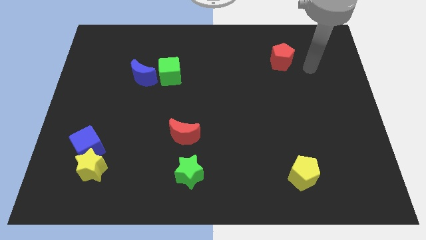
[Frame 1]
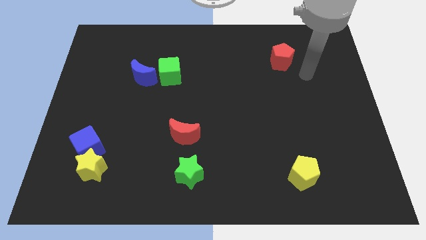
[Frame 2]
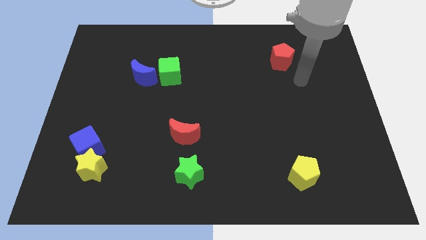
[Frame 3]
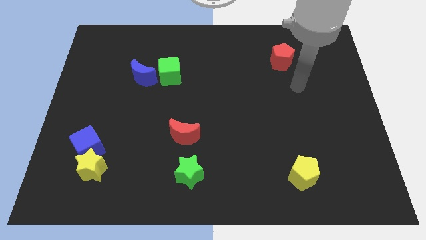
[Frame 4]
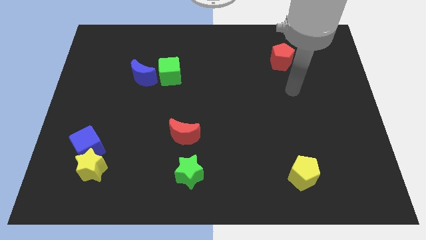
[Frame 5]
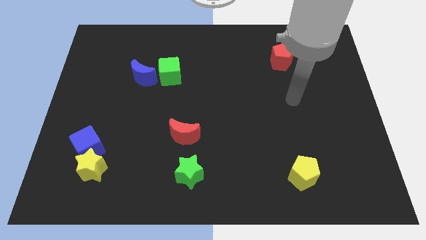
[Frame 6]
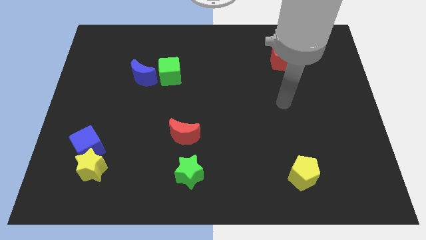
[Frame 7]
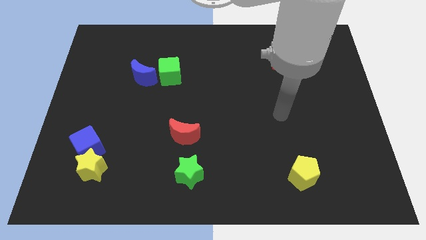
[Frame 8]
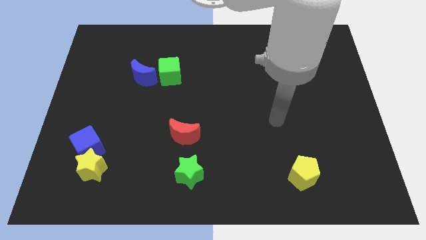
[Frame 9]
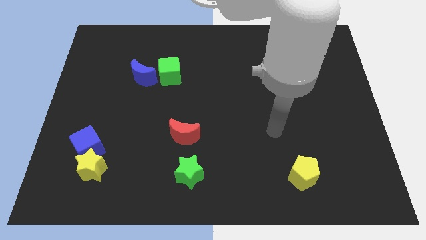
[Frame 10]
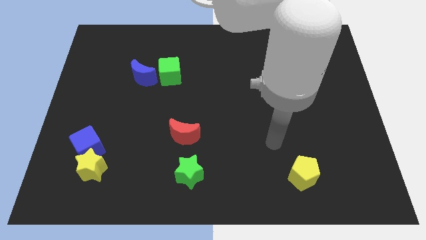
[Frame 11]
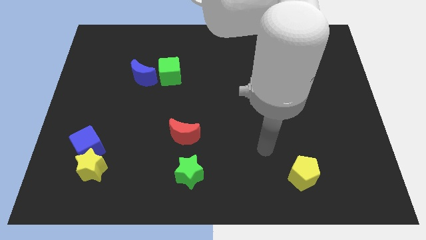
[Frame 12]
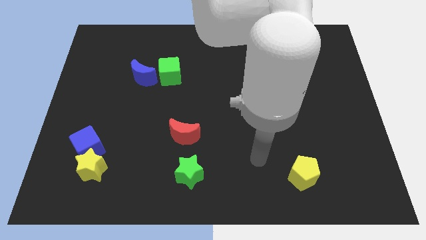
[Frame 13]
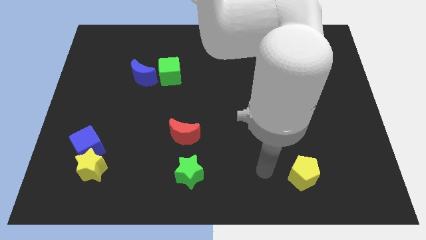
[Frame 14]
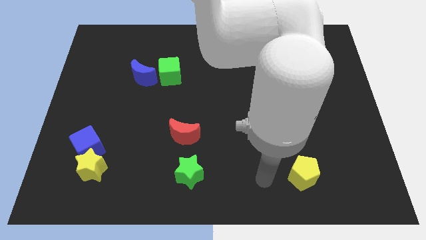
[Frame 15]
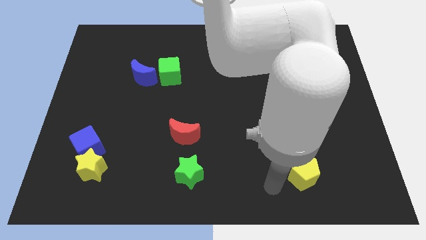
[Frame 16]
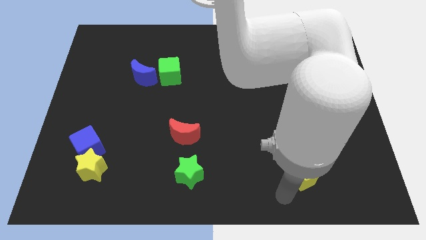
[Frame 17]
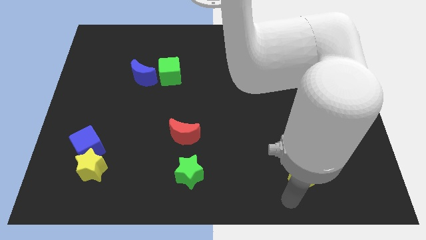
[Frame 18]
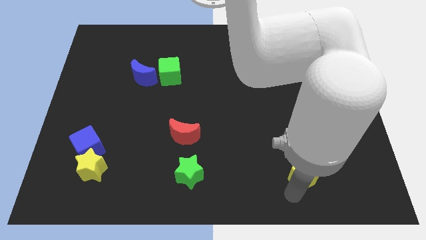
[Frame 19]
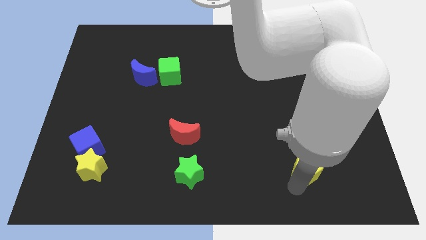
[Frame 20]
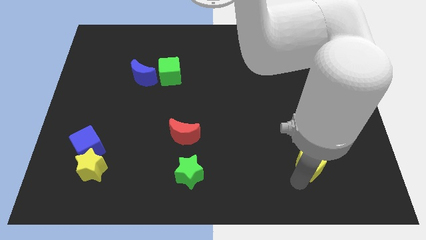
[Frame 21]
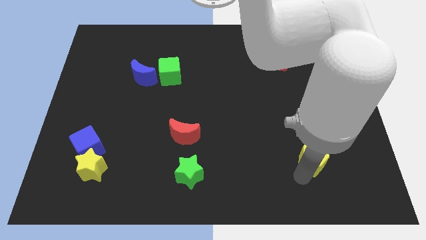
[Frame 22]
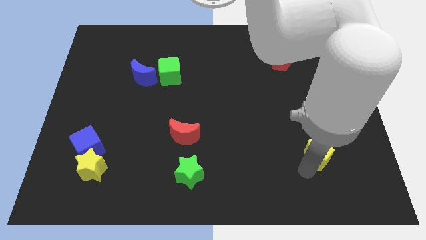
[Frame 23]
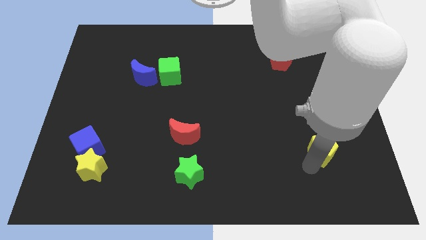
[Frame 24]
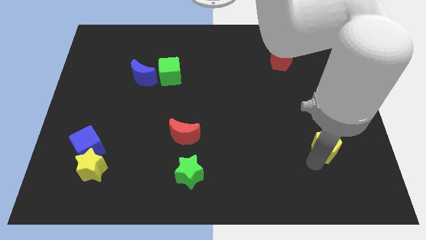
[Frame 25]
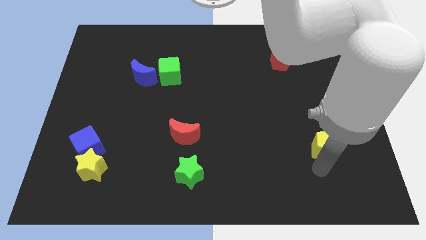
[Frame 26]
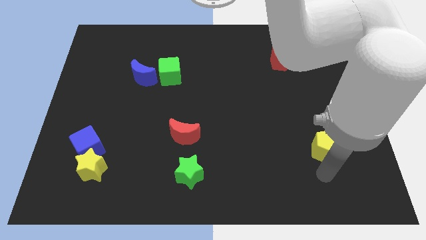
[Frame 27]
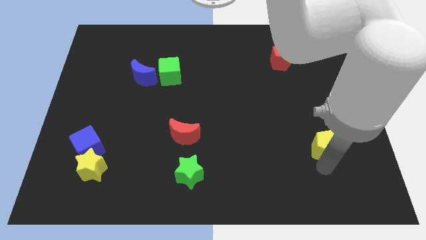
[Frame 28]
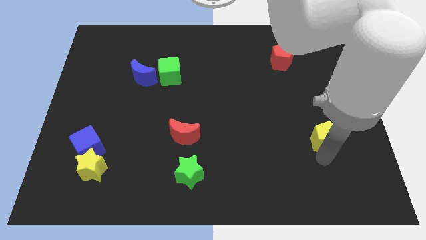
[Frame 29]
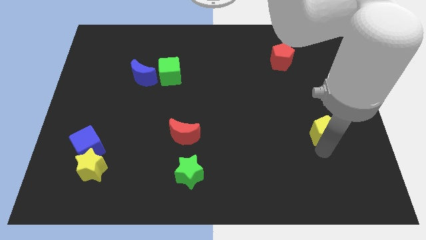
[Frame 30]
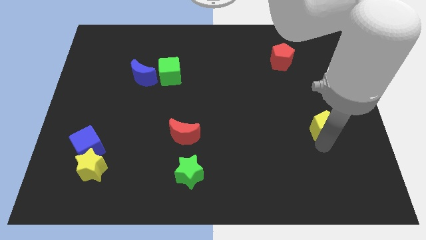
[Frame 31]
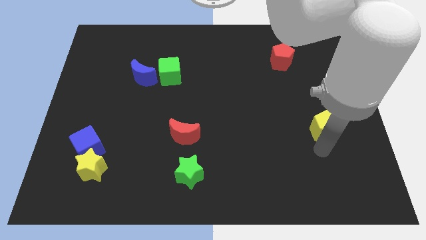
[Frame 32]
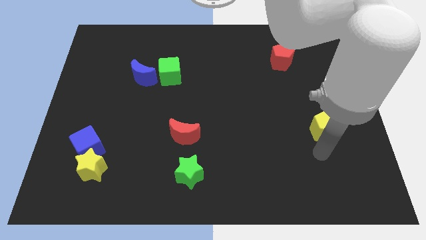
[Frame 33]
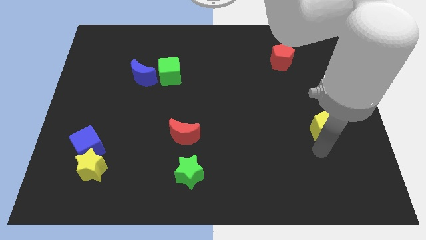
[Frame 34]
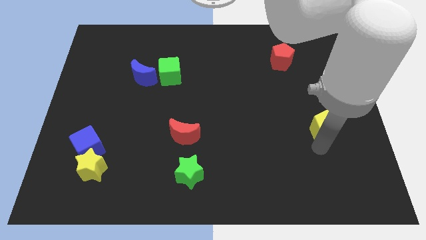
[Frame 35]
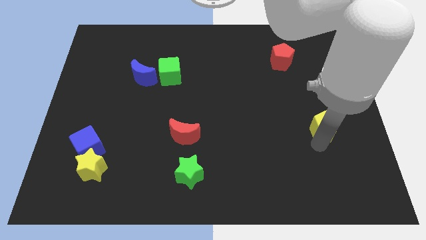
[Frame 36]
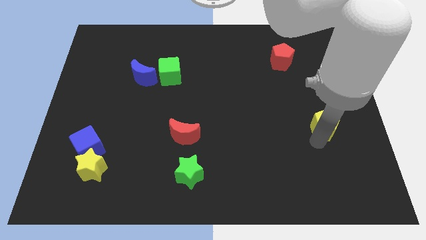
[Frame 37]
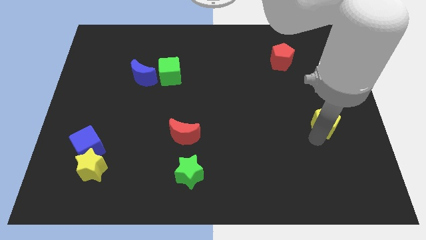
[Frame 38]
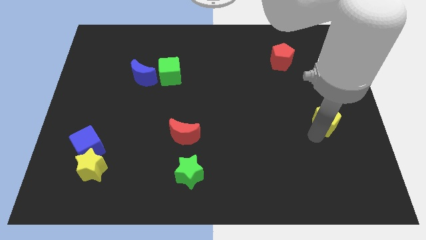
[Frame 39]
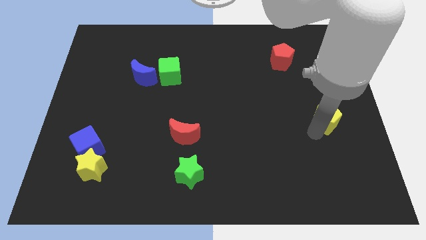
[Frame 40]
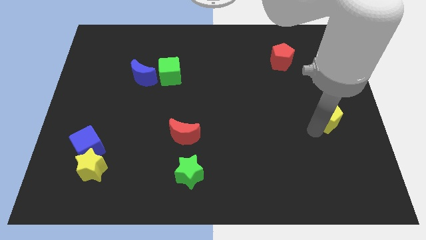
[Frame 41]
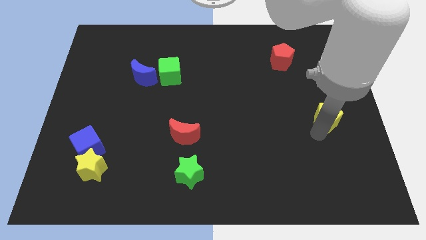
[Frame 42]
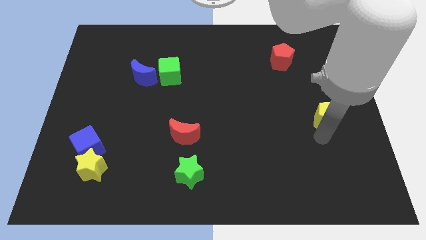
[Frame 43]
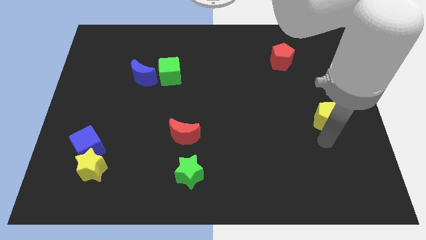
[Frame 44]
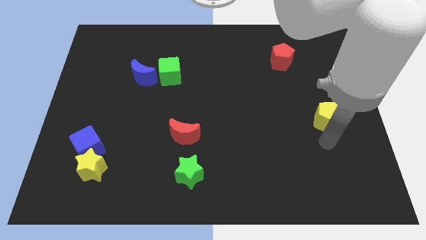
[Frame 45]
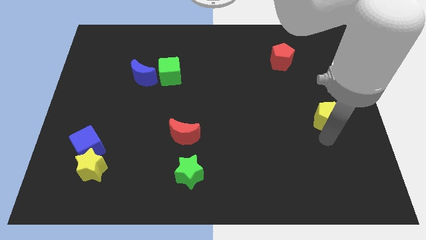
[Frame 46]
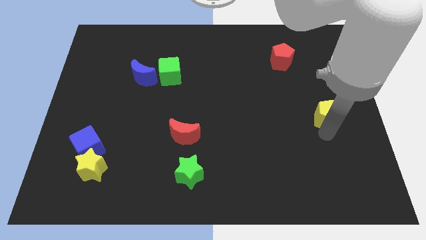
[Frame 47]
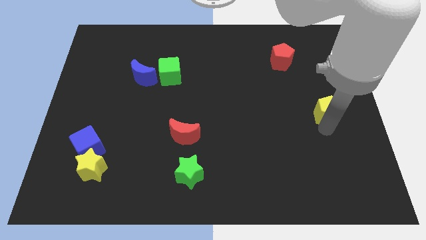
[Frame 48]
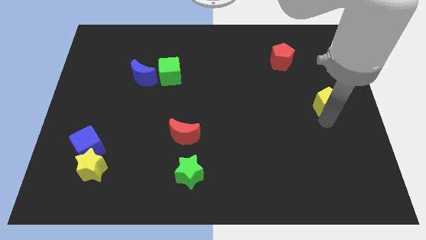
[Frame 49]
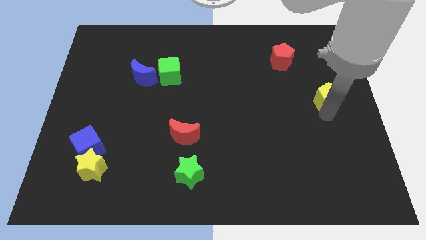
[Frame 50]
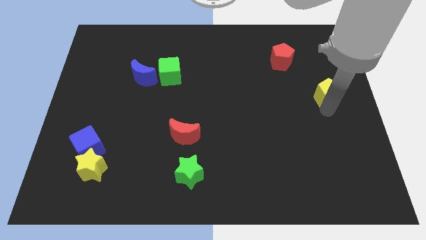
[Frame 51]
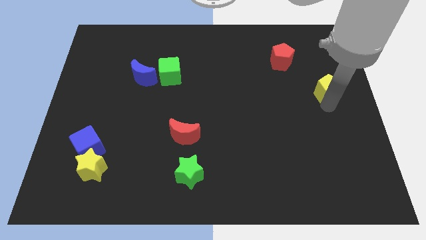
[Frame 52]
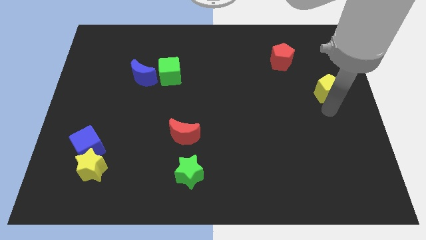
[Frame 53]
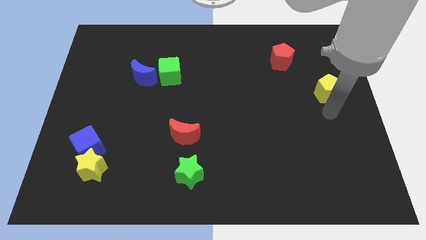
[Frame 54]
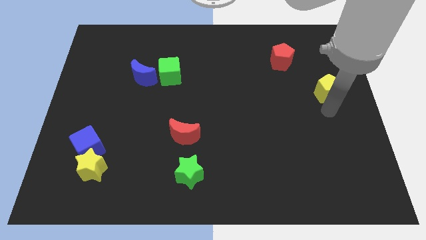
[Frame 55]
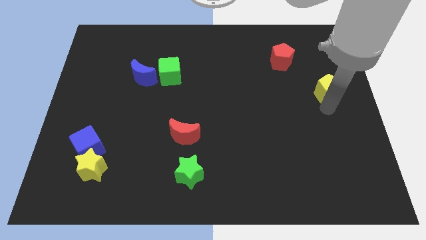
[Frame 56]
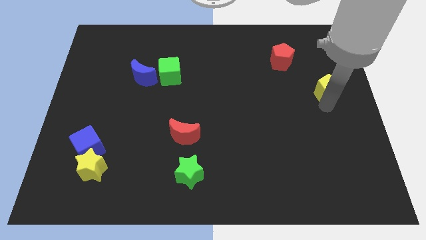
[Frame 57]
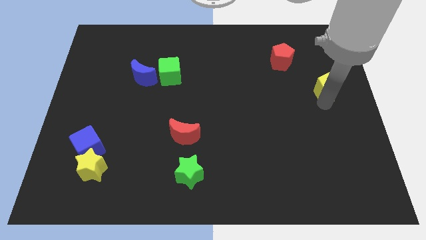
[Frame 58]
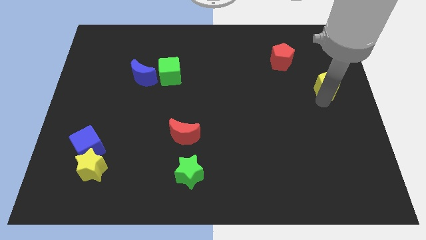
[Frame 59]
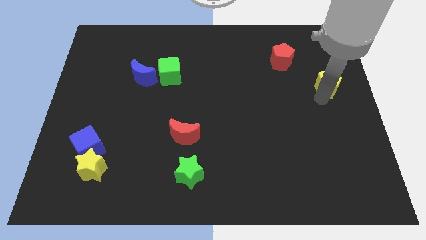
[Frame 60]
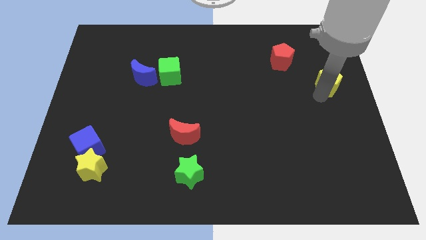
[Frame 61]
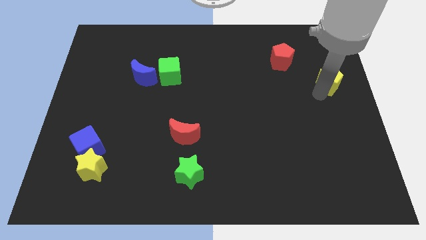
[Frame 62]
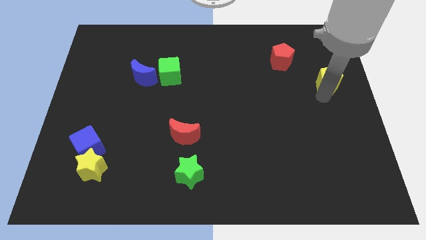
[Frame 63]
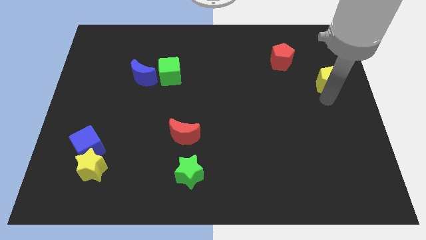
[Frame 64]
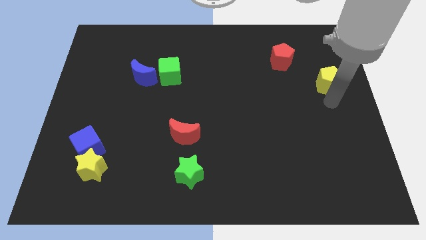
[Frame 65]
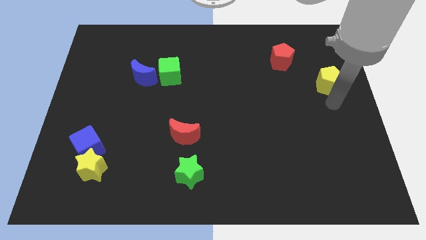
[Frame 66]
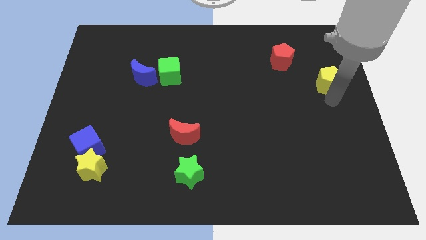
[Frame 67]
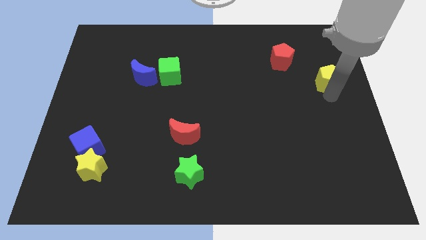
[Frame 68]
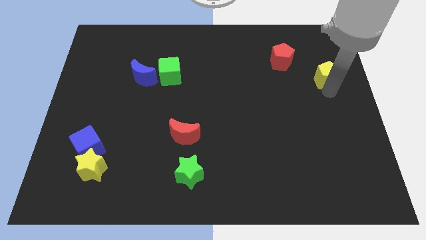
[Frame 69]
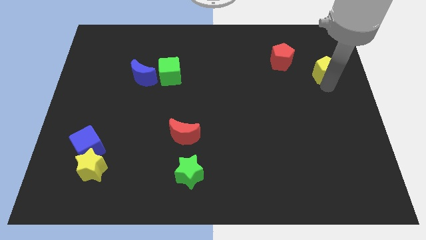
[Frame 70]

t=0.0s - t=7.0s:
put the yellow pentagon just right of the red pentagon
